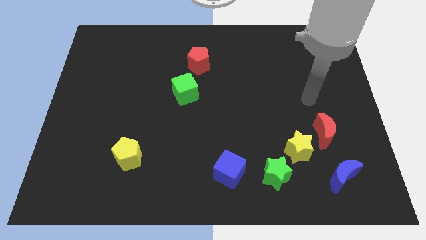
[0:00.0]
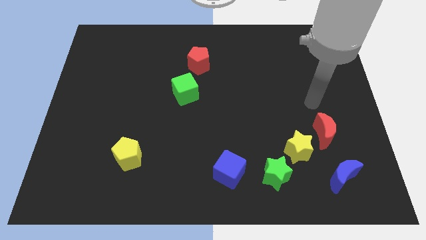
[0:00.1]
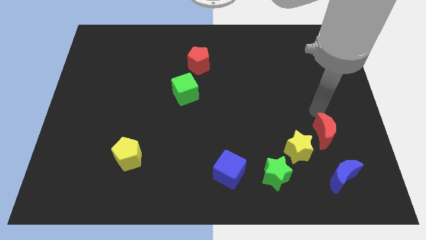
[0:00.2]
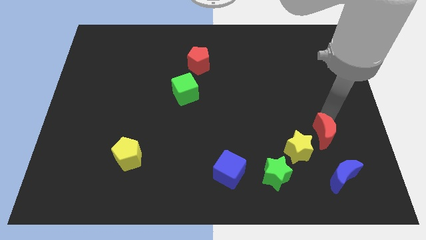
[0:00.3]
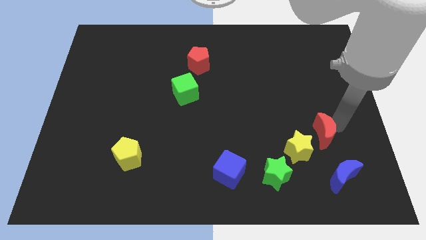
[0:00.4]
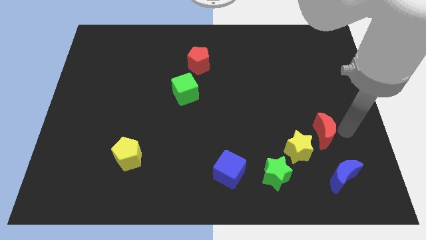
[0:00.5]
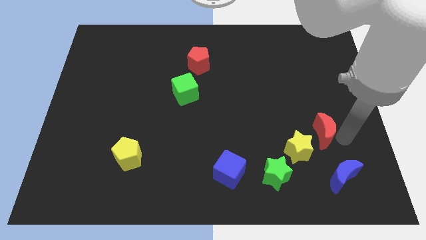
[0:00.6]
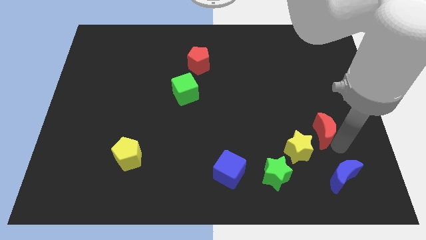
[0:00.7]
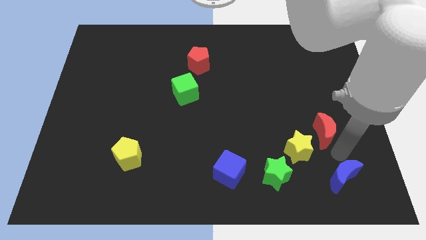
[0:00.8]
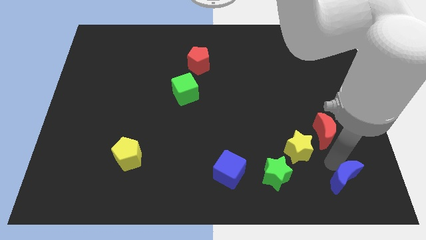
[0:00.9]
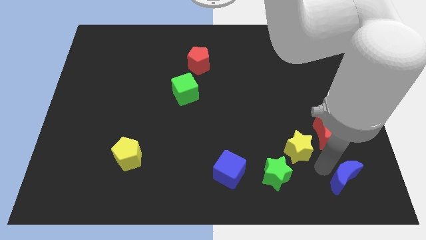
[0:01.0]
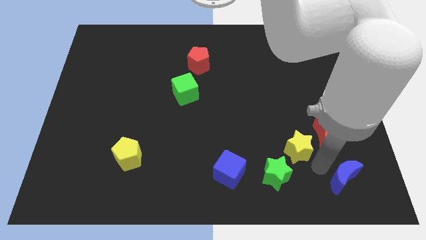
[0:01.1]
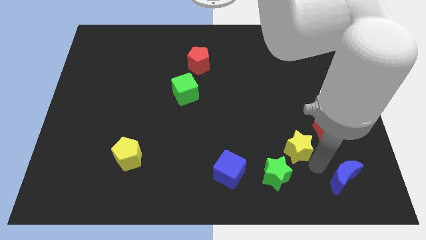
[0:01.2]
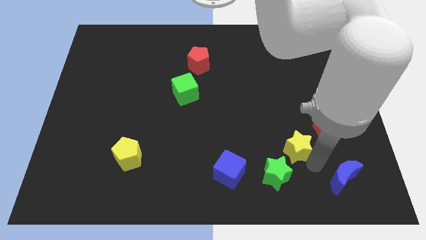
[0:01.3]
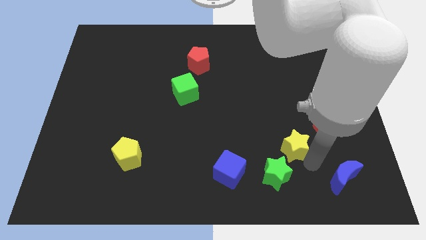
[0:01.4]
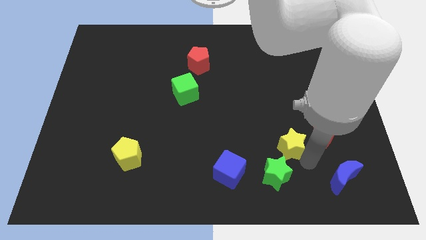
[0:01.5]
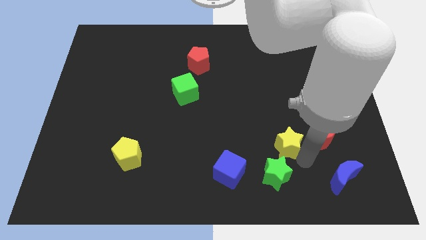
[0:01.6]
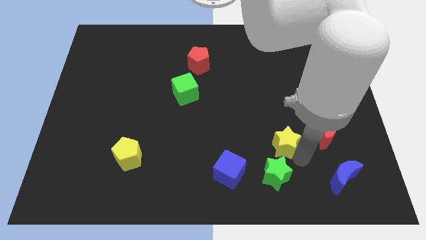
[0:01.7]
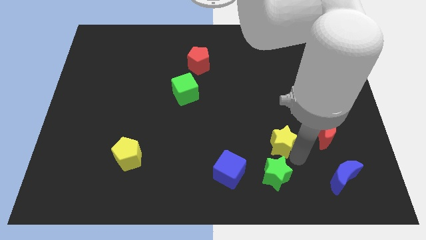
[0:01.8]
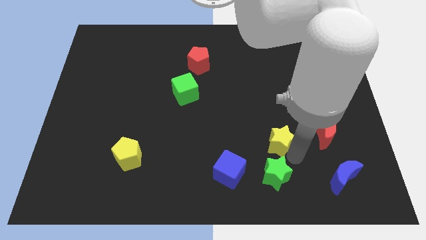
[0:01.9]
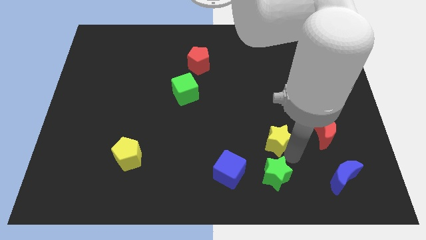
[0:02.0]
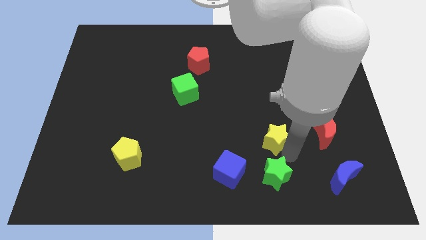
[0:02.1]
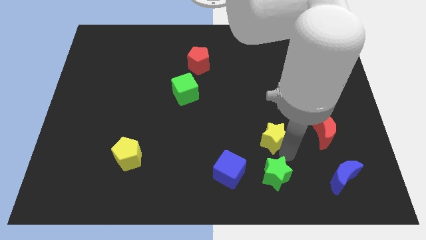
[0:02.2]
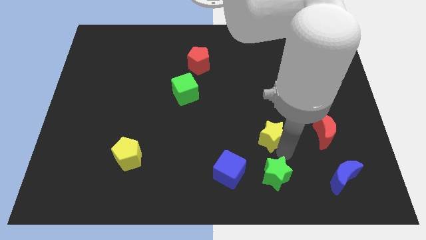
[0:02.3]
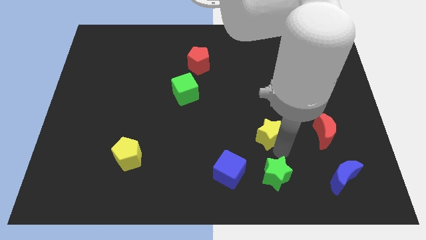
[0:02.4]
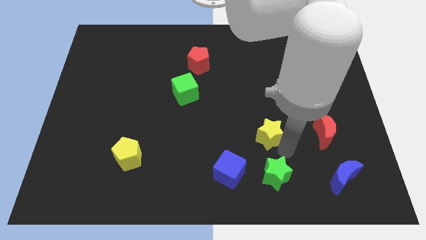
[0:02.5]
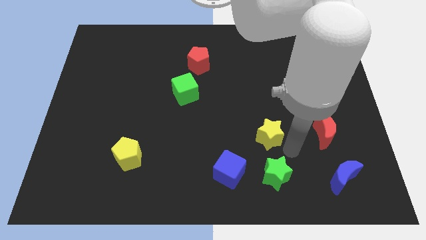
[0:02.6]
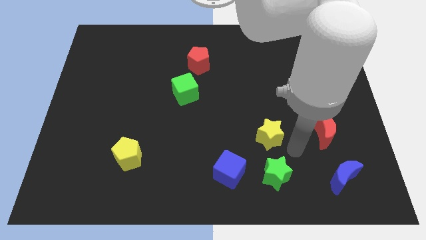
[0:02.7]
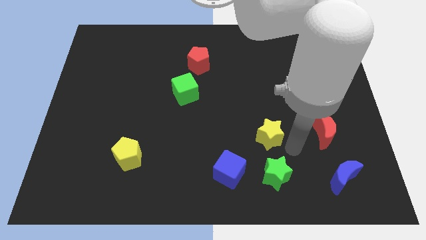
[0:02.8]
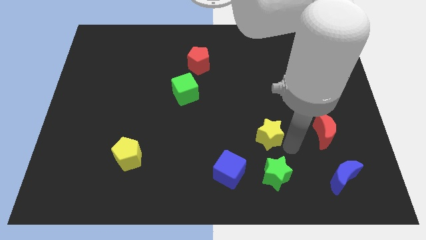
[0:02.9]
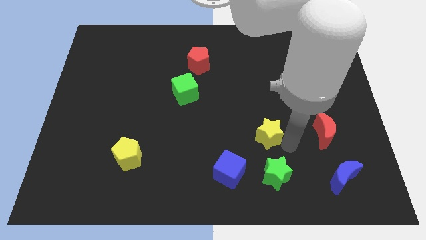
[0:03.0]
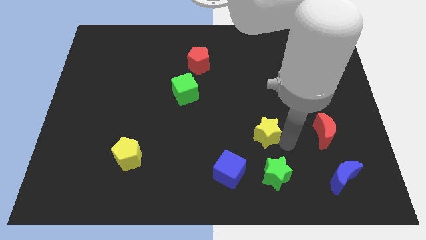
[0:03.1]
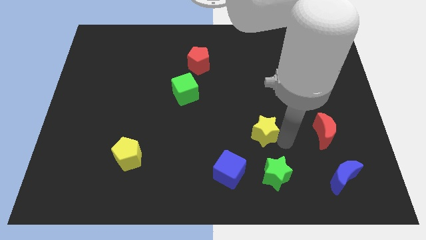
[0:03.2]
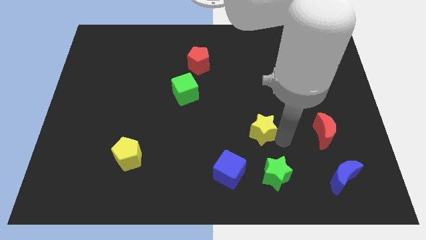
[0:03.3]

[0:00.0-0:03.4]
move the yellow star away from the green star and red moon

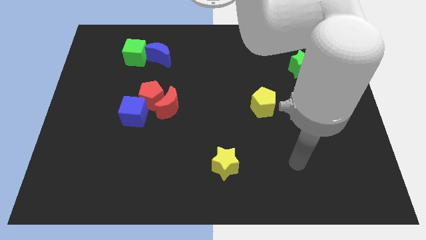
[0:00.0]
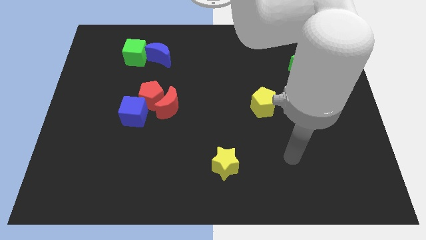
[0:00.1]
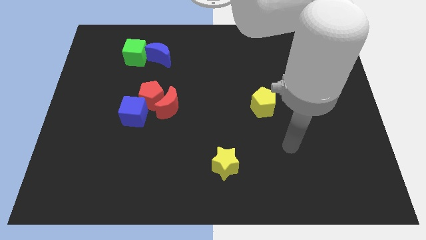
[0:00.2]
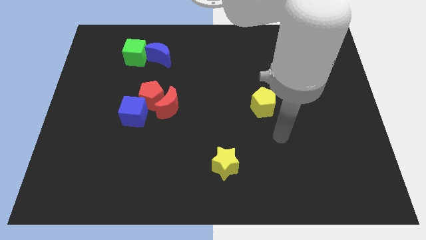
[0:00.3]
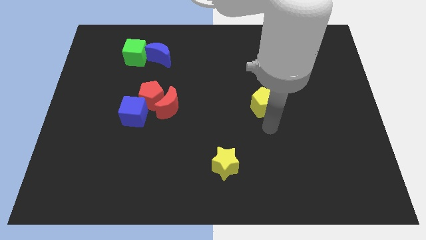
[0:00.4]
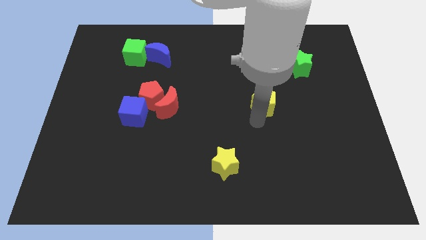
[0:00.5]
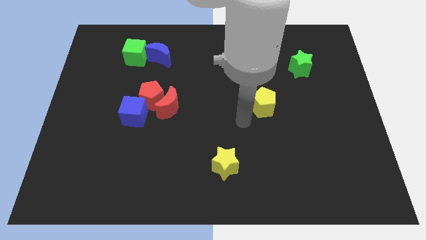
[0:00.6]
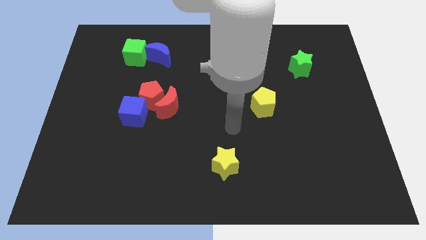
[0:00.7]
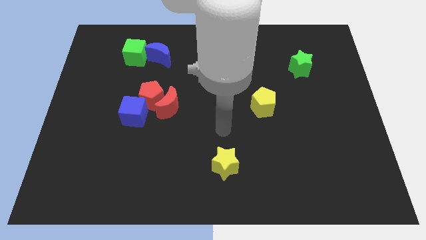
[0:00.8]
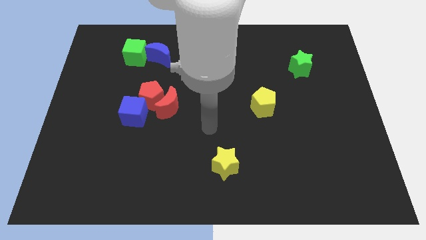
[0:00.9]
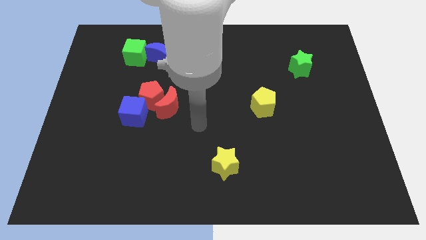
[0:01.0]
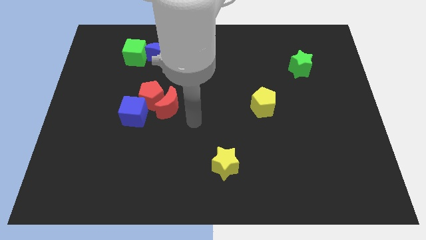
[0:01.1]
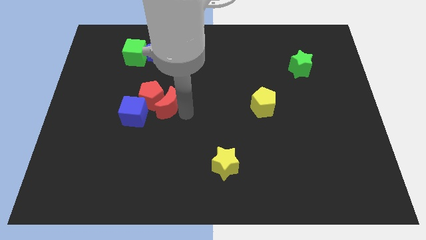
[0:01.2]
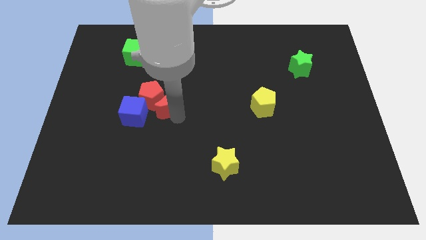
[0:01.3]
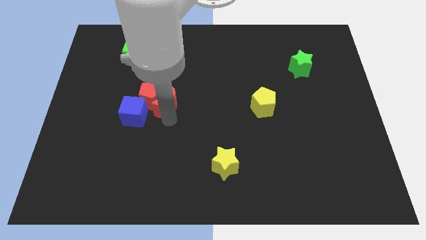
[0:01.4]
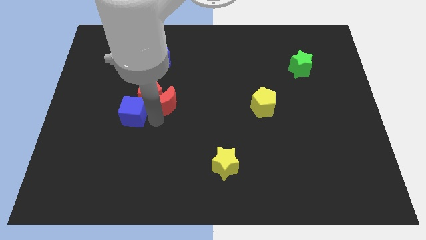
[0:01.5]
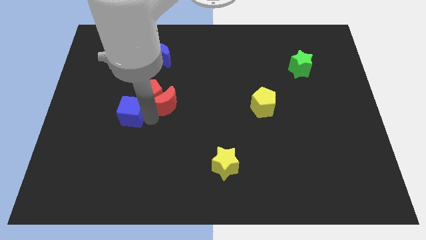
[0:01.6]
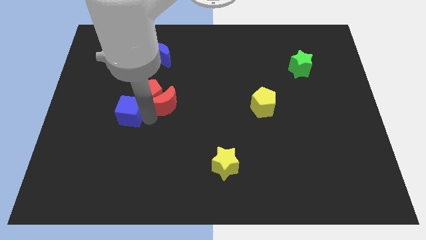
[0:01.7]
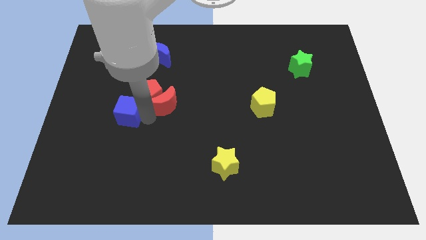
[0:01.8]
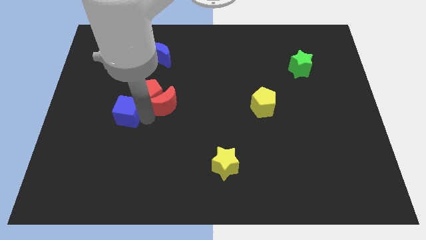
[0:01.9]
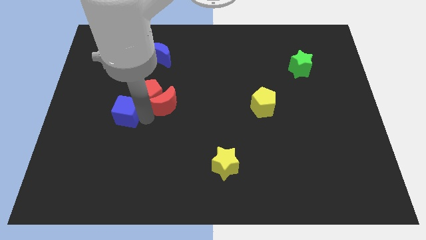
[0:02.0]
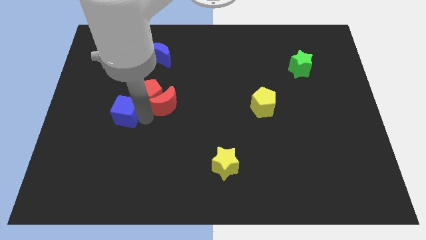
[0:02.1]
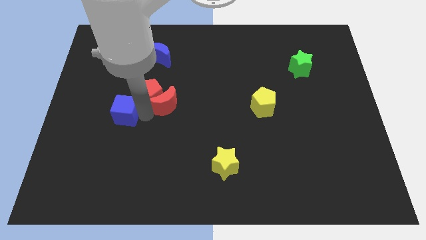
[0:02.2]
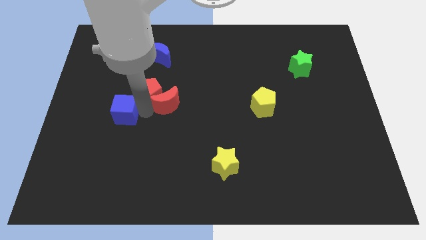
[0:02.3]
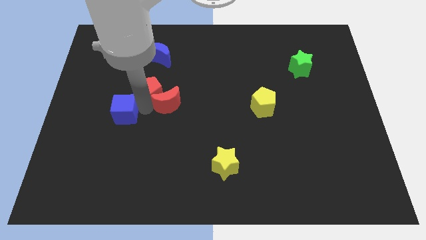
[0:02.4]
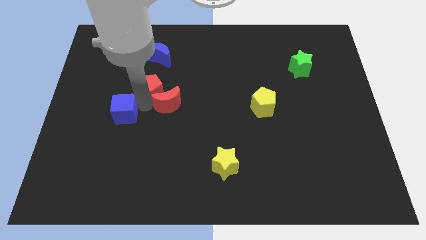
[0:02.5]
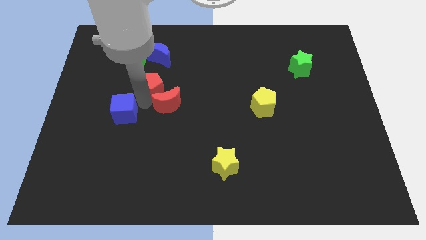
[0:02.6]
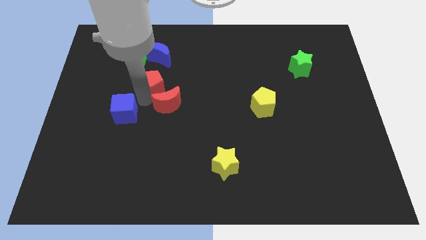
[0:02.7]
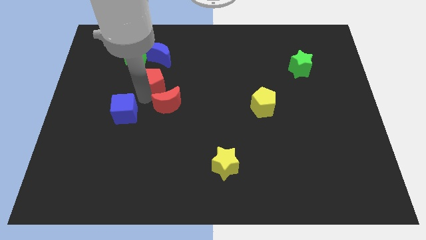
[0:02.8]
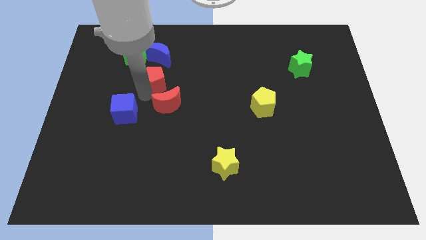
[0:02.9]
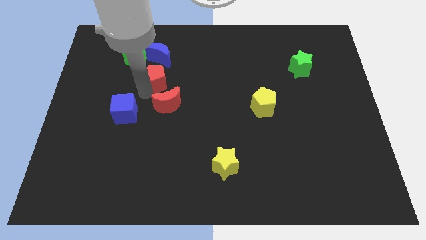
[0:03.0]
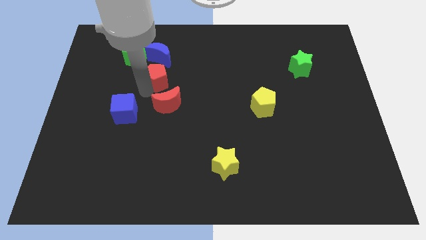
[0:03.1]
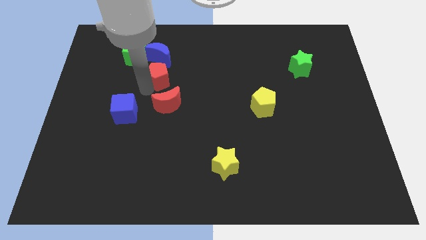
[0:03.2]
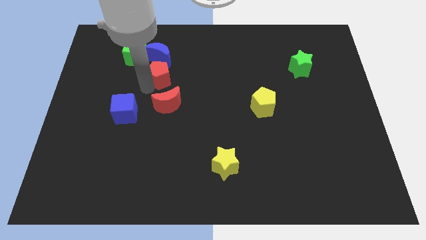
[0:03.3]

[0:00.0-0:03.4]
move the red pentagon away from the red moon and blue cube

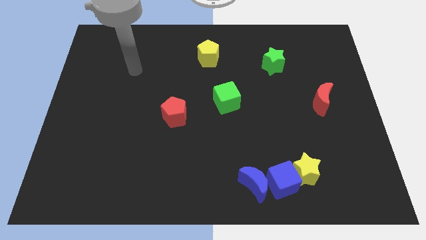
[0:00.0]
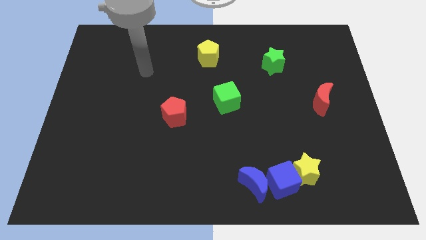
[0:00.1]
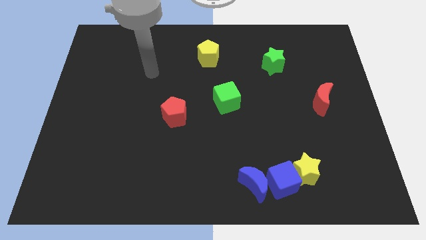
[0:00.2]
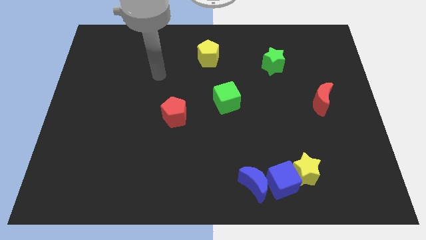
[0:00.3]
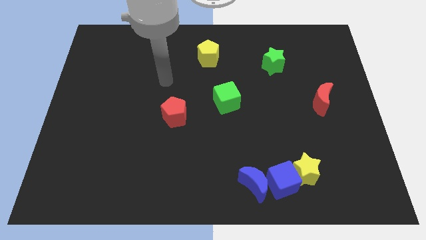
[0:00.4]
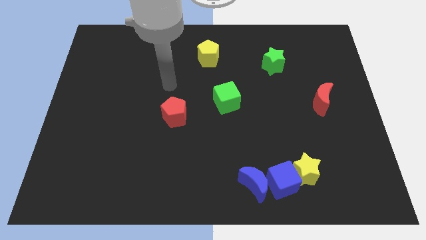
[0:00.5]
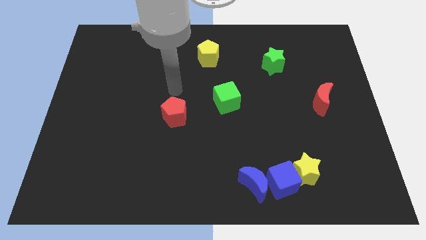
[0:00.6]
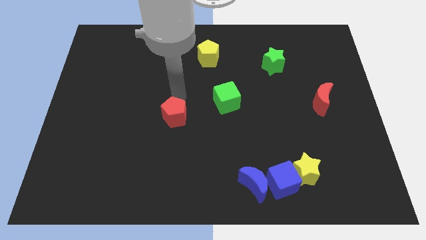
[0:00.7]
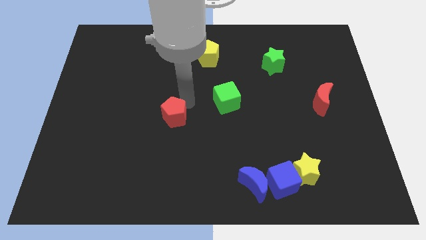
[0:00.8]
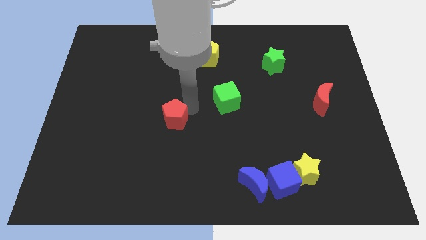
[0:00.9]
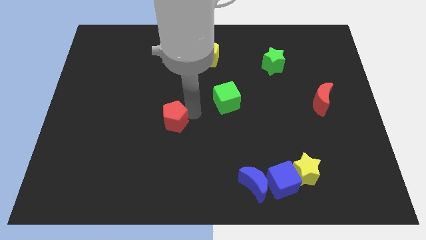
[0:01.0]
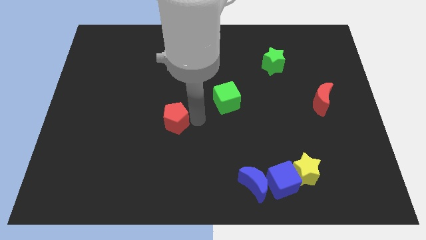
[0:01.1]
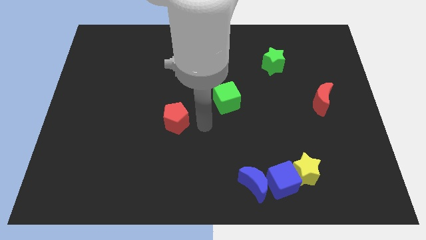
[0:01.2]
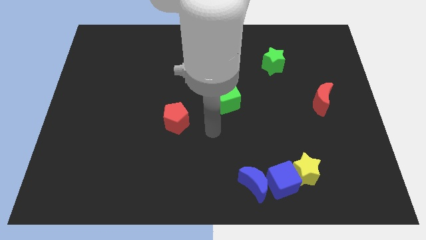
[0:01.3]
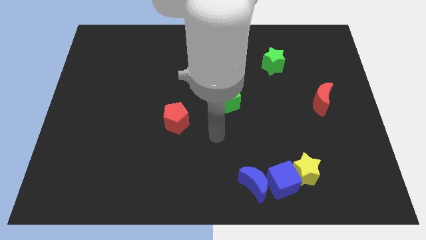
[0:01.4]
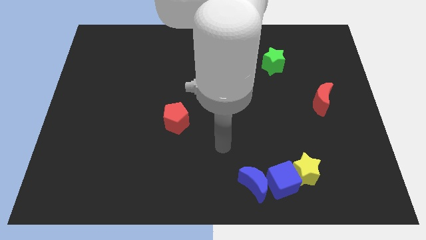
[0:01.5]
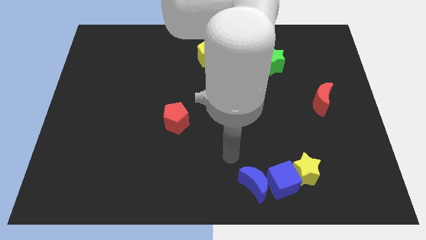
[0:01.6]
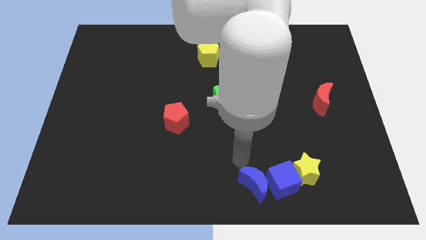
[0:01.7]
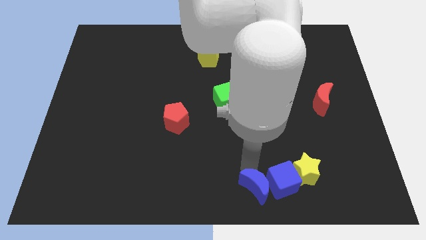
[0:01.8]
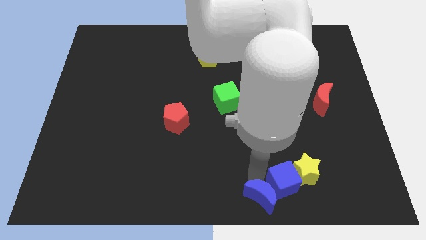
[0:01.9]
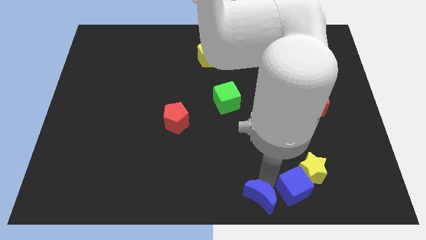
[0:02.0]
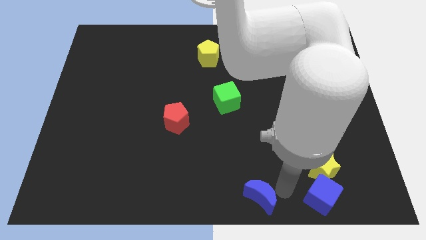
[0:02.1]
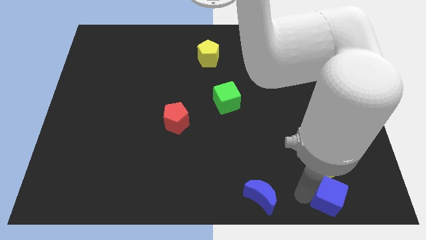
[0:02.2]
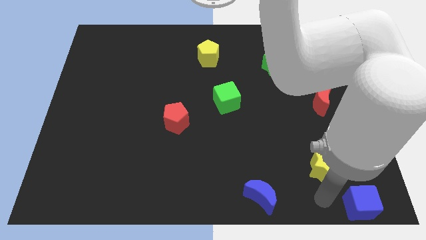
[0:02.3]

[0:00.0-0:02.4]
pull the yellow star apart from the blue cube
